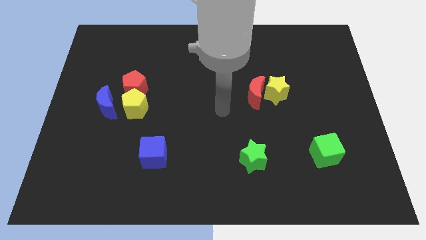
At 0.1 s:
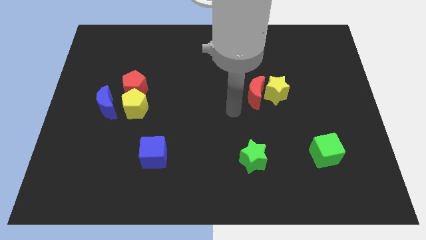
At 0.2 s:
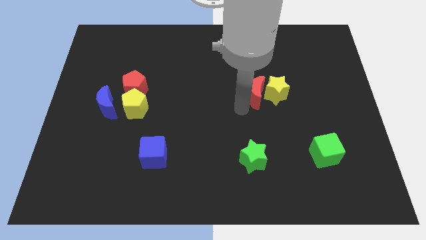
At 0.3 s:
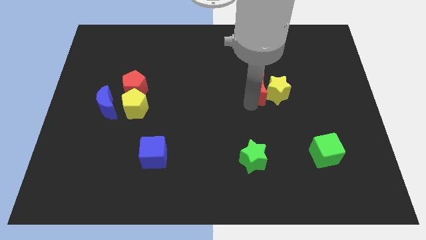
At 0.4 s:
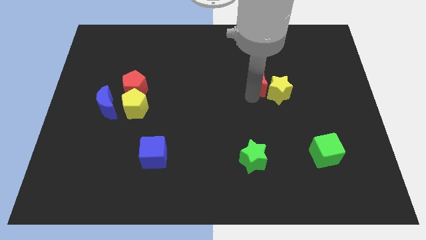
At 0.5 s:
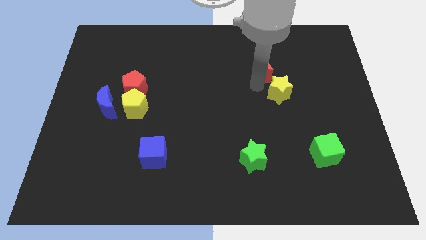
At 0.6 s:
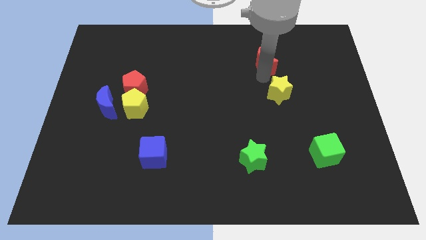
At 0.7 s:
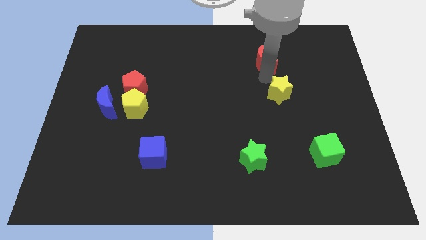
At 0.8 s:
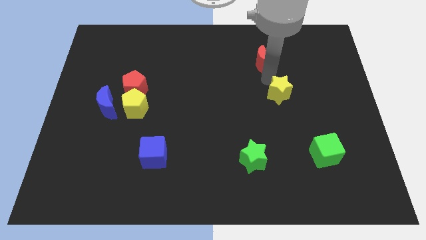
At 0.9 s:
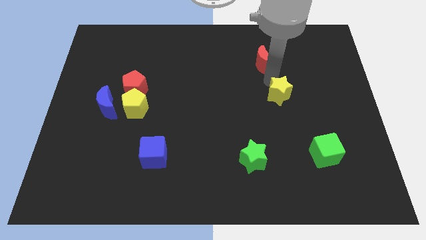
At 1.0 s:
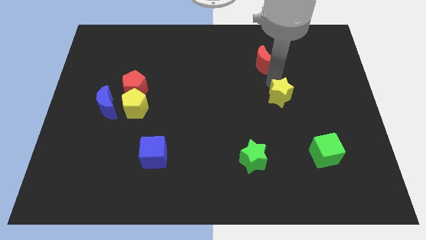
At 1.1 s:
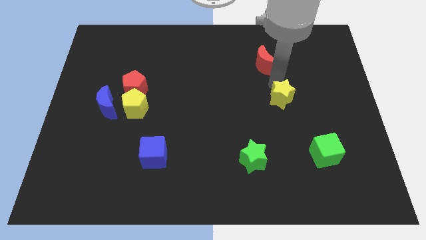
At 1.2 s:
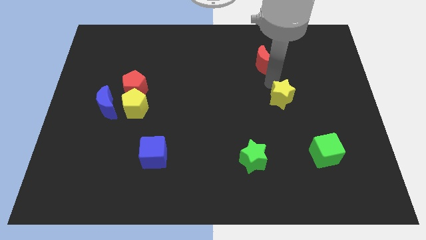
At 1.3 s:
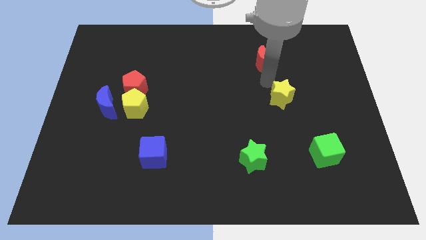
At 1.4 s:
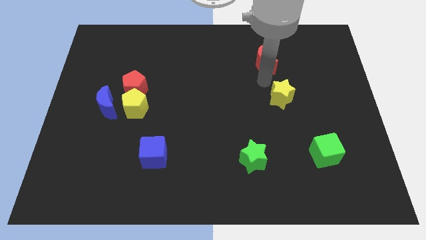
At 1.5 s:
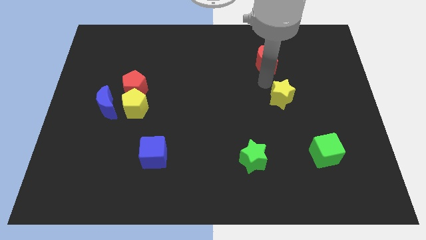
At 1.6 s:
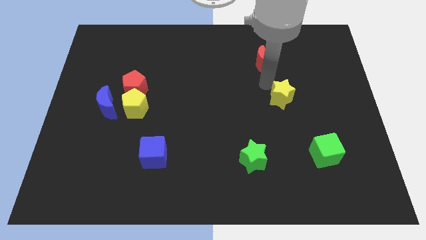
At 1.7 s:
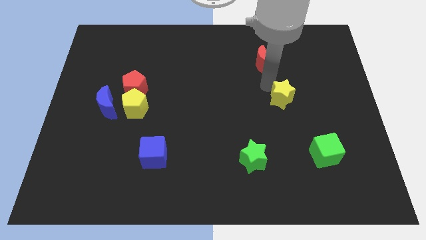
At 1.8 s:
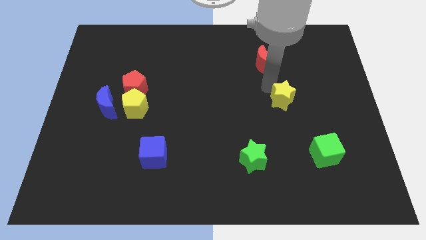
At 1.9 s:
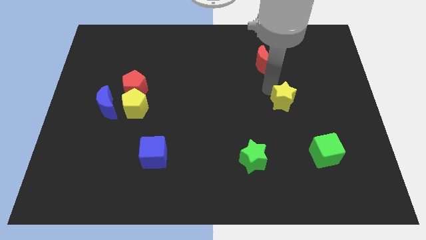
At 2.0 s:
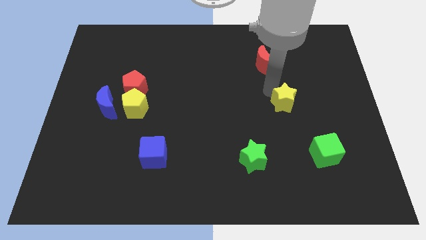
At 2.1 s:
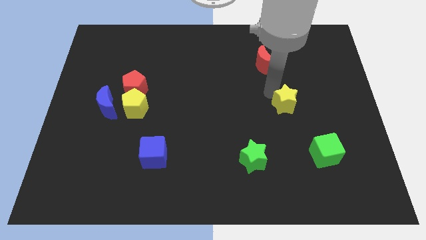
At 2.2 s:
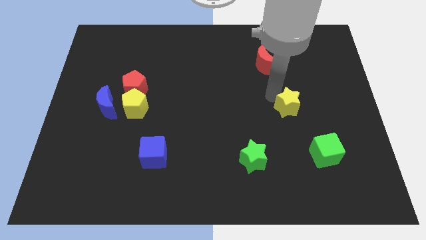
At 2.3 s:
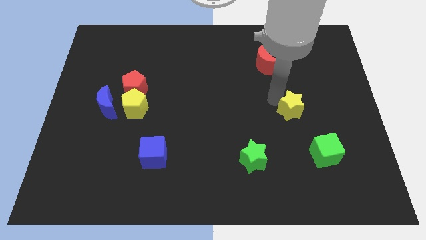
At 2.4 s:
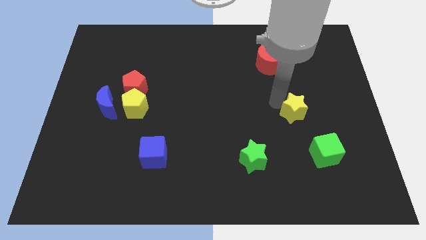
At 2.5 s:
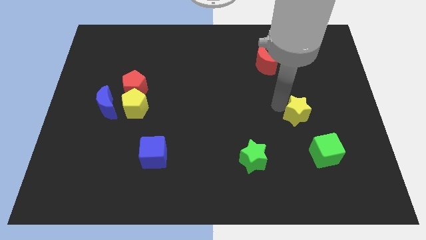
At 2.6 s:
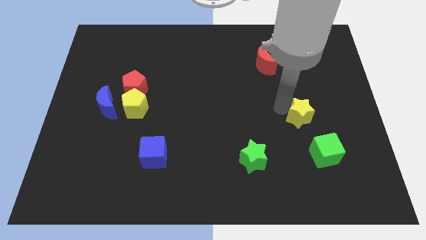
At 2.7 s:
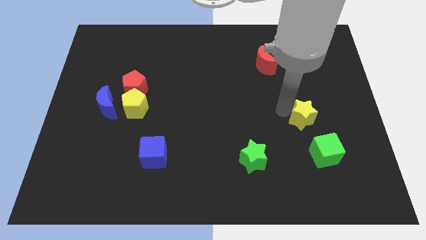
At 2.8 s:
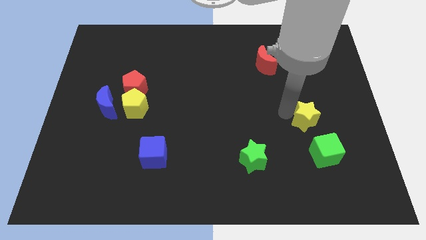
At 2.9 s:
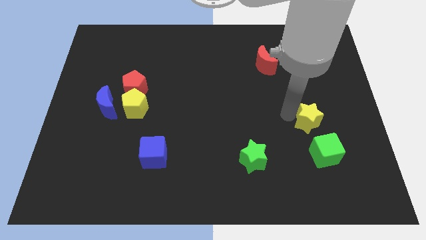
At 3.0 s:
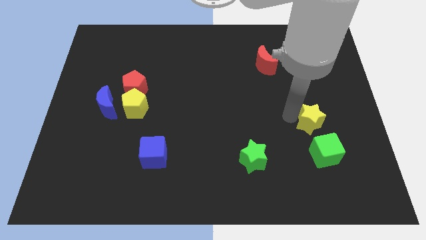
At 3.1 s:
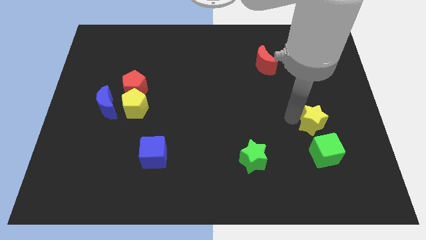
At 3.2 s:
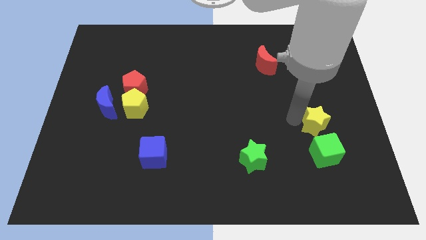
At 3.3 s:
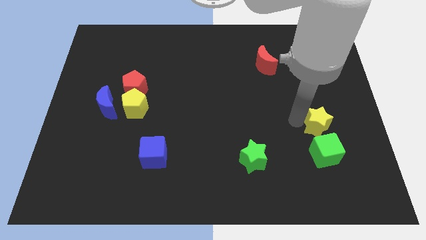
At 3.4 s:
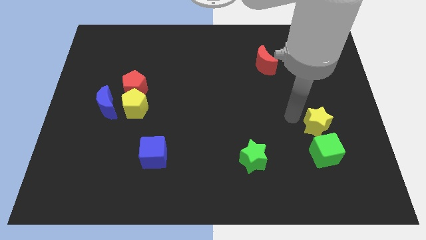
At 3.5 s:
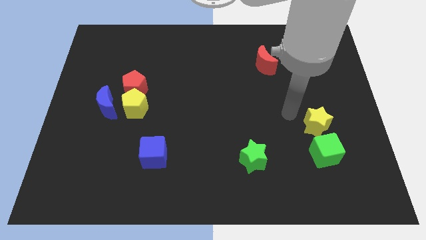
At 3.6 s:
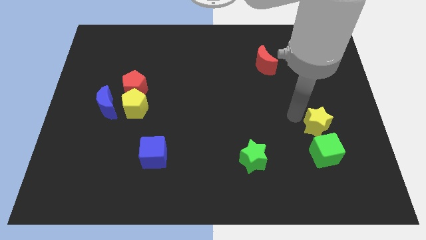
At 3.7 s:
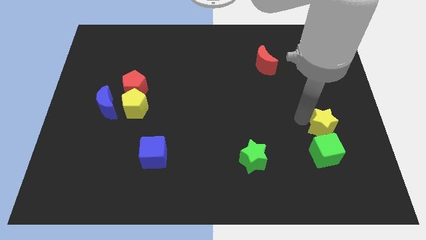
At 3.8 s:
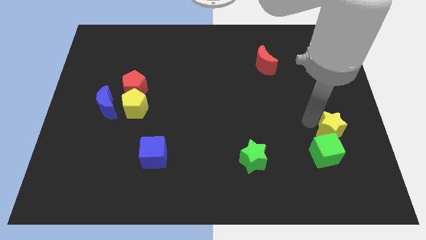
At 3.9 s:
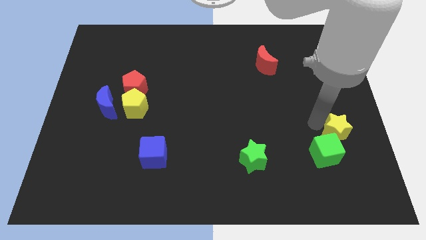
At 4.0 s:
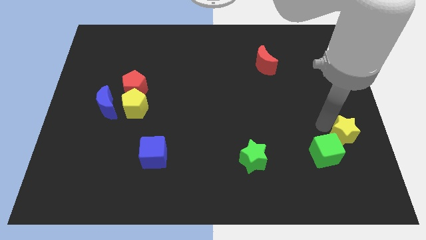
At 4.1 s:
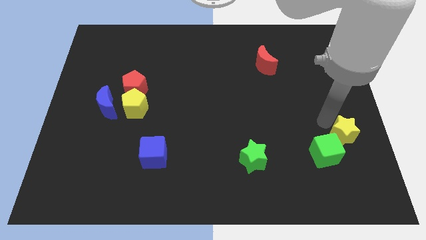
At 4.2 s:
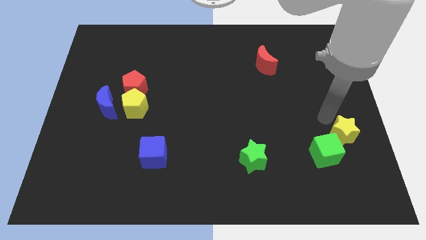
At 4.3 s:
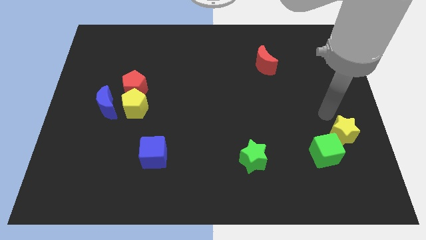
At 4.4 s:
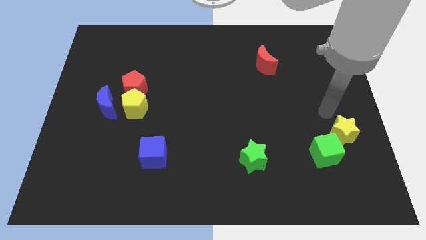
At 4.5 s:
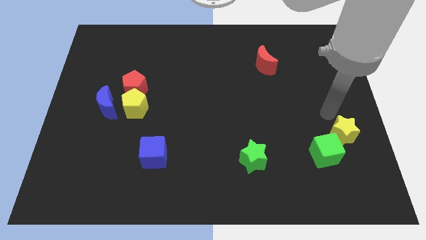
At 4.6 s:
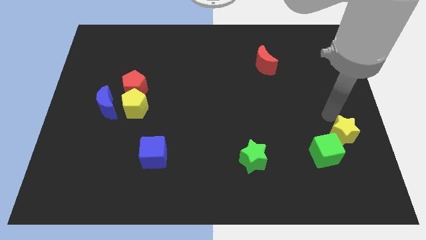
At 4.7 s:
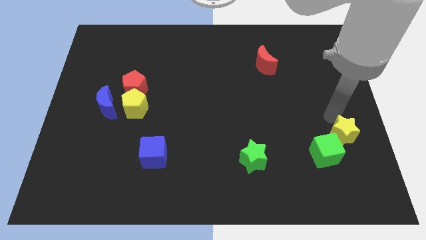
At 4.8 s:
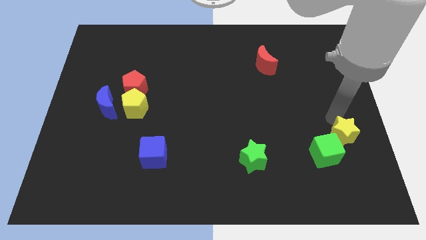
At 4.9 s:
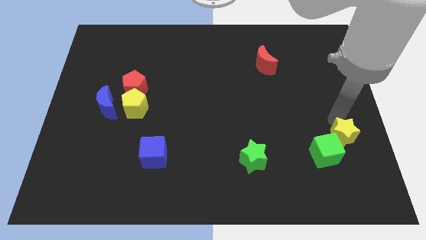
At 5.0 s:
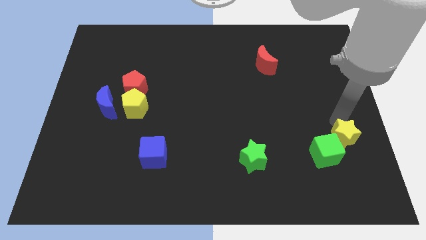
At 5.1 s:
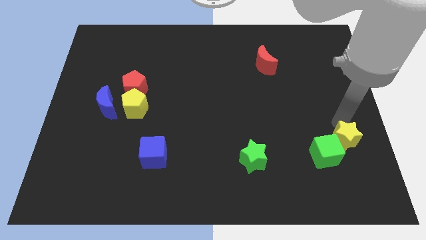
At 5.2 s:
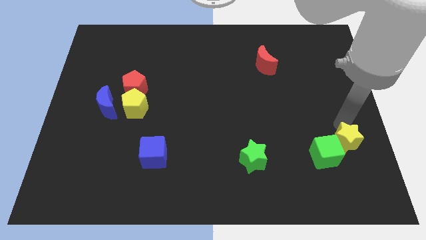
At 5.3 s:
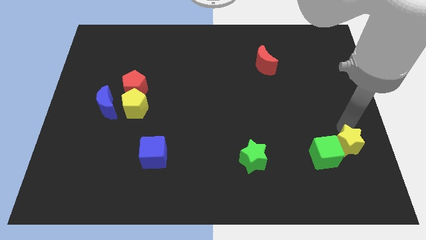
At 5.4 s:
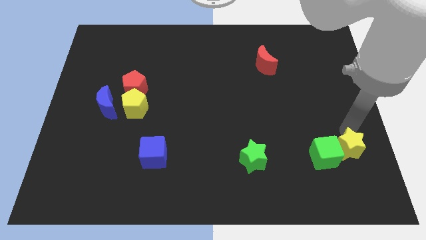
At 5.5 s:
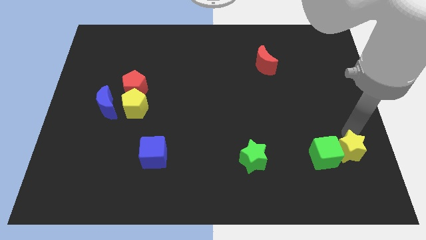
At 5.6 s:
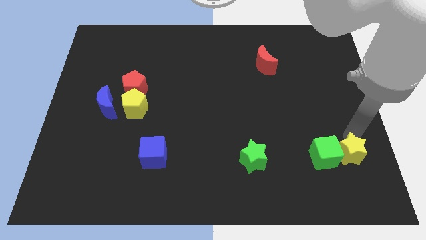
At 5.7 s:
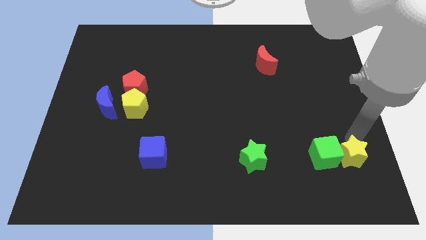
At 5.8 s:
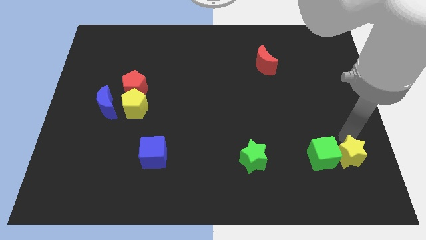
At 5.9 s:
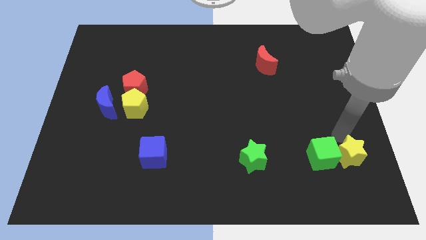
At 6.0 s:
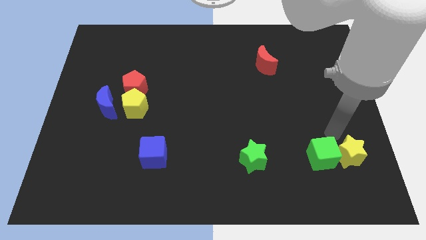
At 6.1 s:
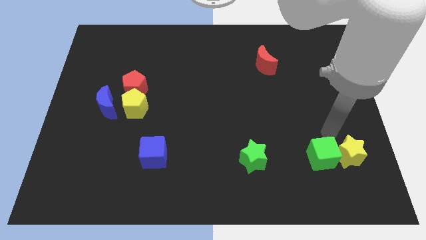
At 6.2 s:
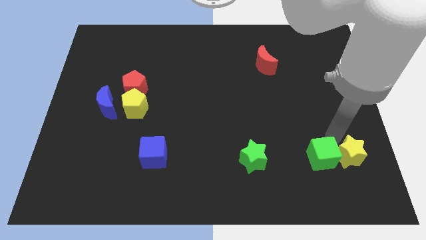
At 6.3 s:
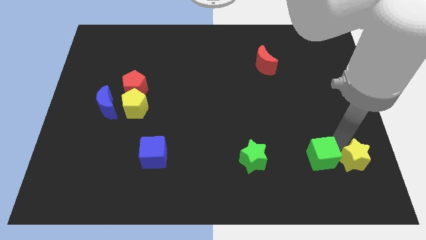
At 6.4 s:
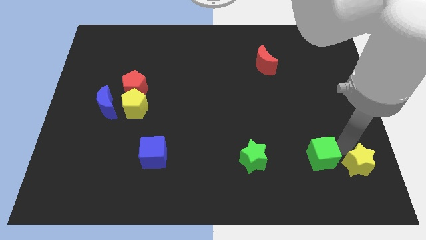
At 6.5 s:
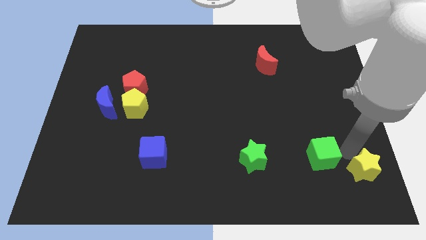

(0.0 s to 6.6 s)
slide the yellow star to the bottom right of the board
